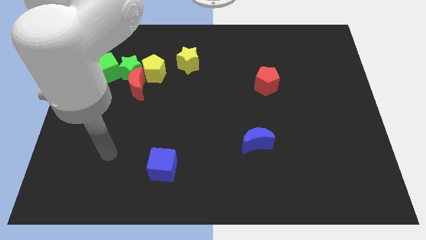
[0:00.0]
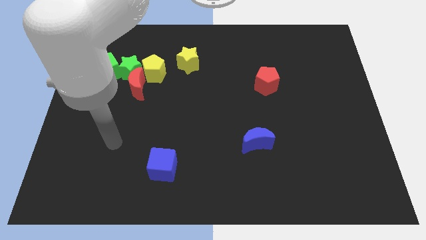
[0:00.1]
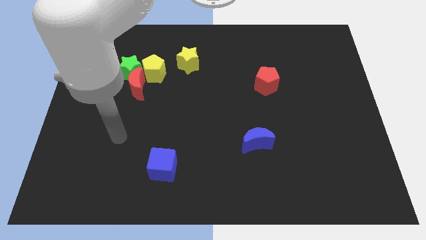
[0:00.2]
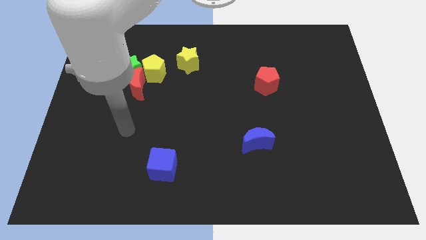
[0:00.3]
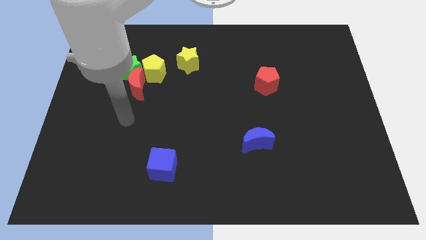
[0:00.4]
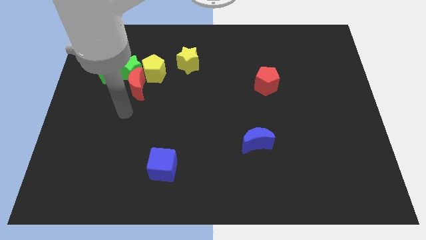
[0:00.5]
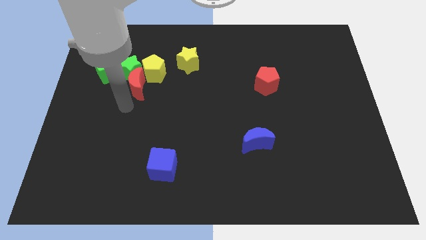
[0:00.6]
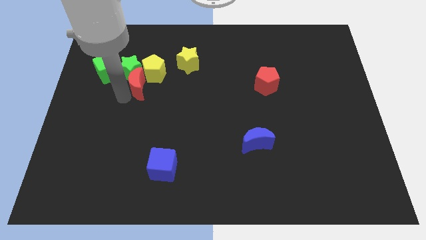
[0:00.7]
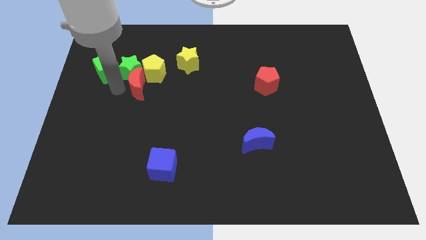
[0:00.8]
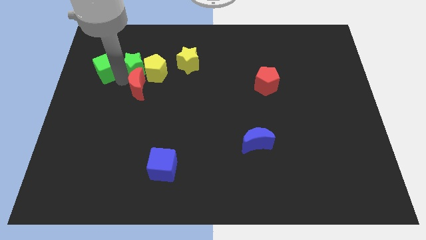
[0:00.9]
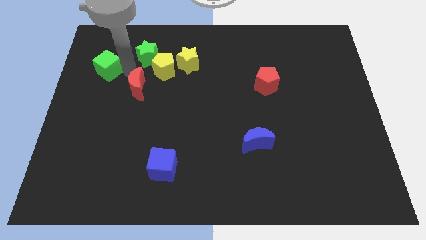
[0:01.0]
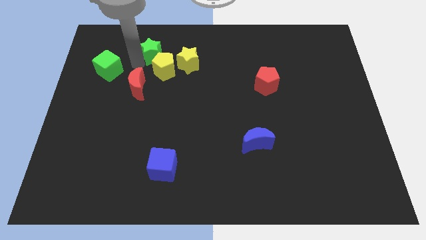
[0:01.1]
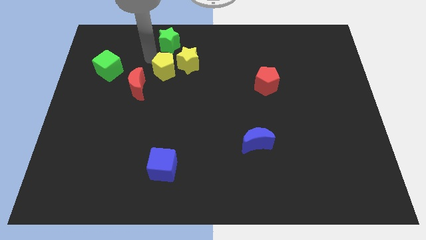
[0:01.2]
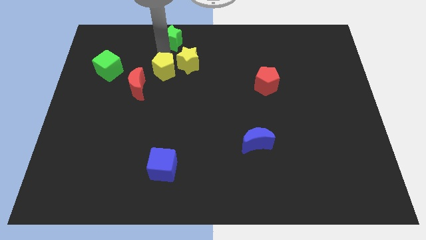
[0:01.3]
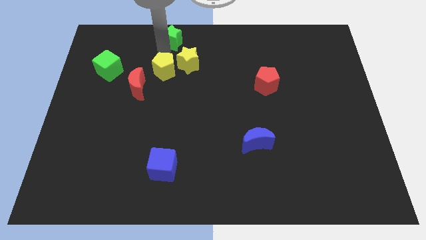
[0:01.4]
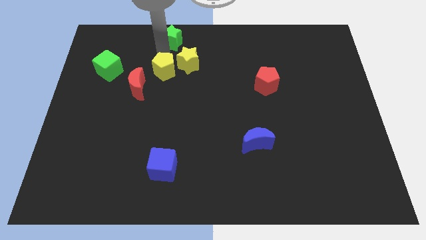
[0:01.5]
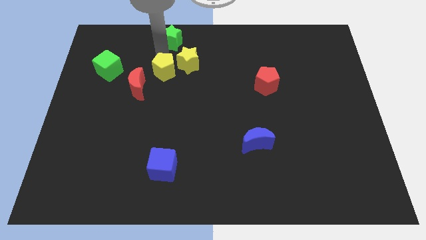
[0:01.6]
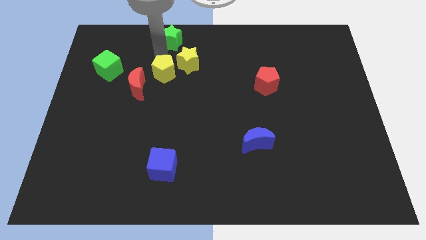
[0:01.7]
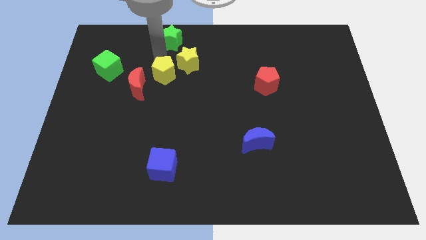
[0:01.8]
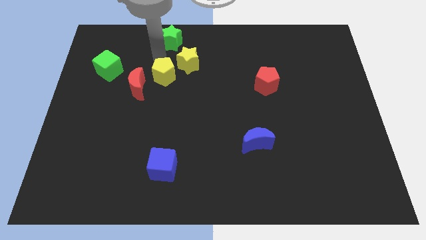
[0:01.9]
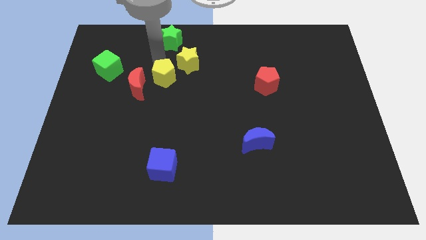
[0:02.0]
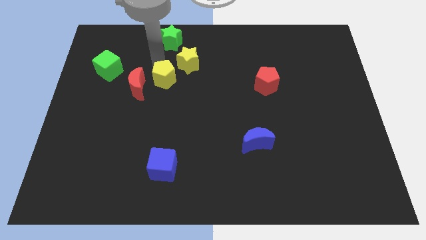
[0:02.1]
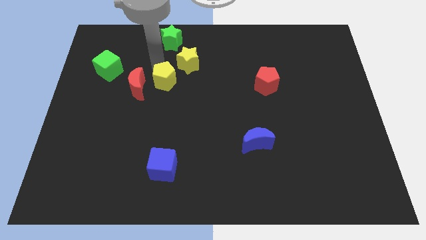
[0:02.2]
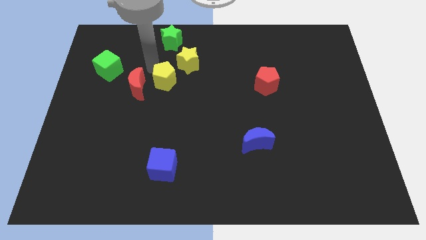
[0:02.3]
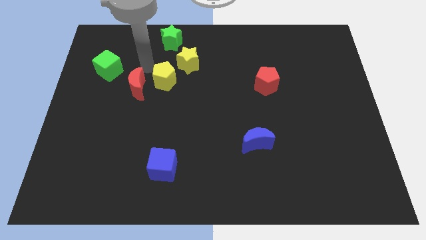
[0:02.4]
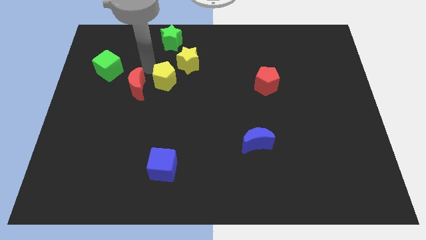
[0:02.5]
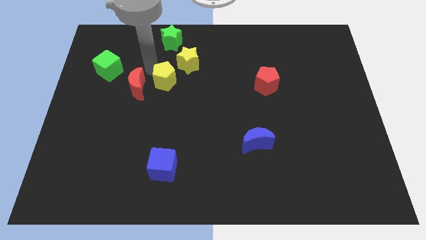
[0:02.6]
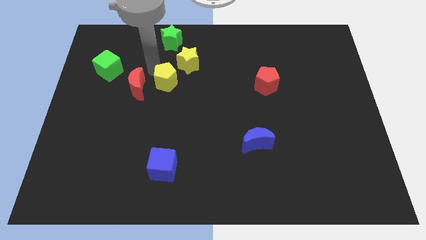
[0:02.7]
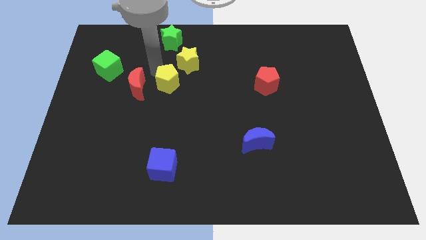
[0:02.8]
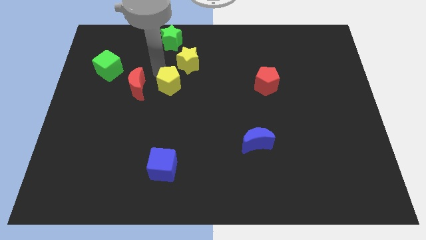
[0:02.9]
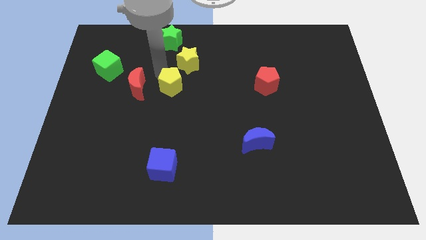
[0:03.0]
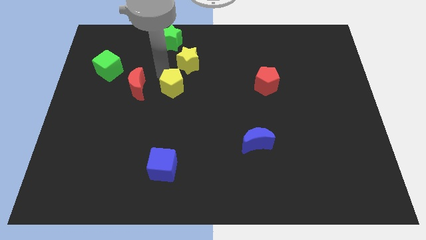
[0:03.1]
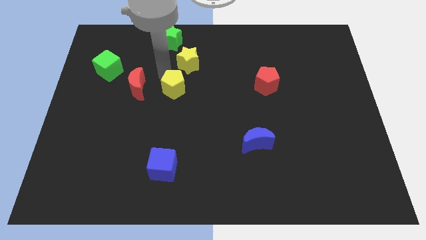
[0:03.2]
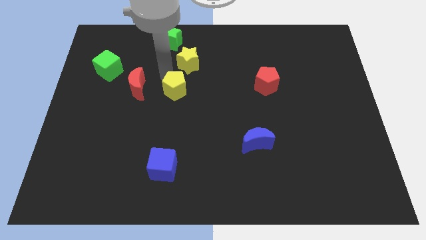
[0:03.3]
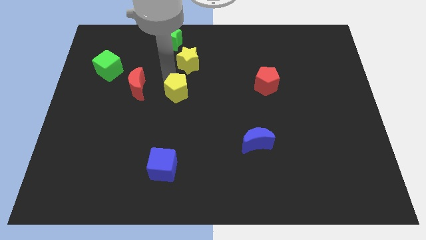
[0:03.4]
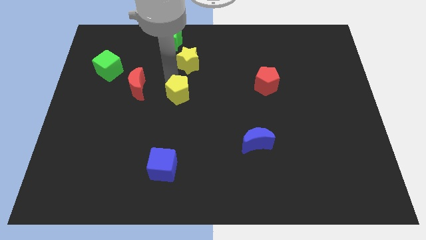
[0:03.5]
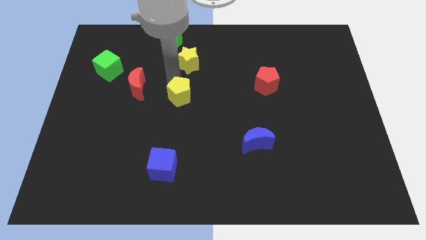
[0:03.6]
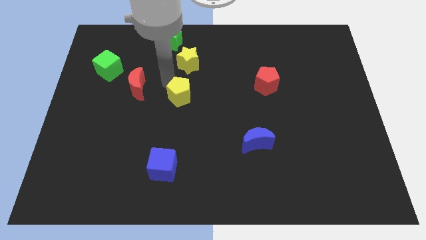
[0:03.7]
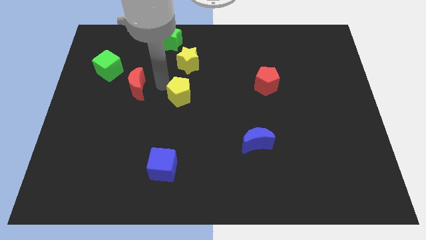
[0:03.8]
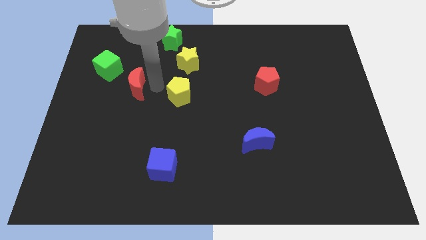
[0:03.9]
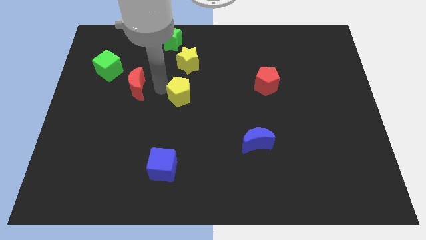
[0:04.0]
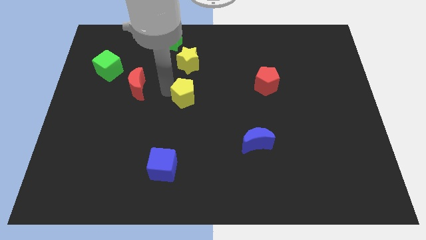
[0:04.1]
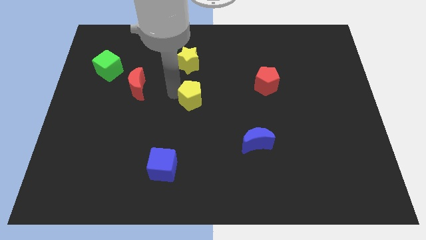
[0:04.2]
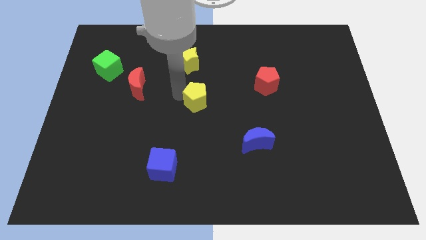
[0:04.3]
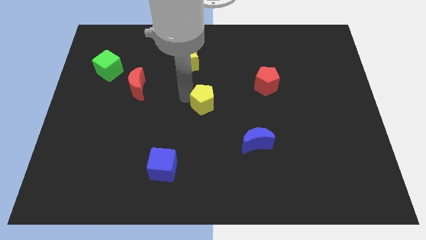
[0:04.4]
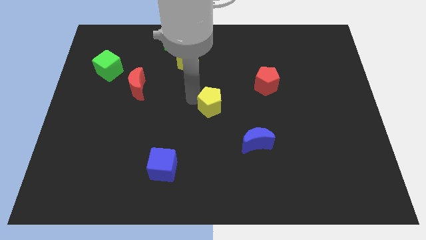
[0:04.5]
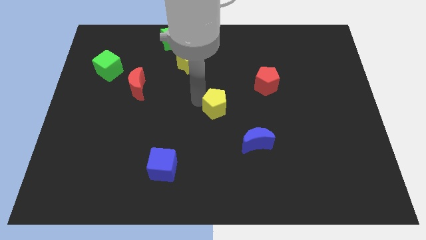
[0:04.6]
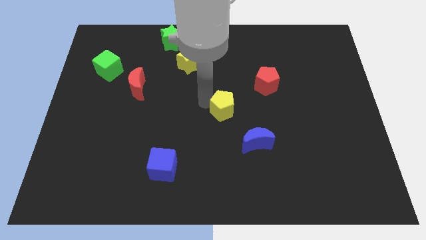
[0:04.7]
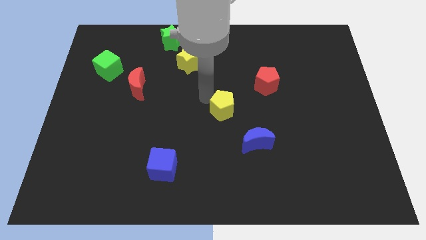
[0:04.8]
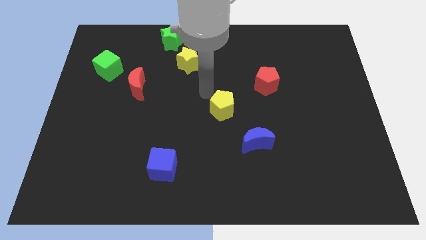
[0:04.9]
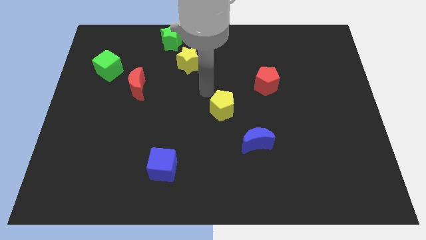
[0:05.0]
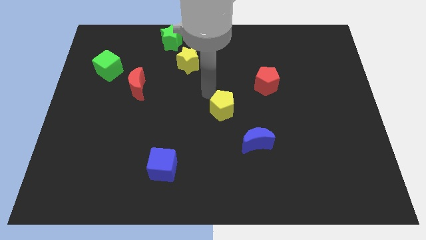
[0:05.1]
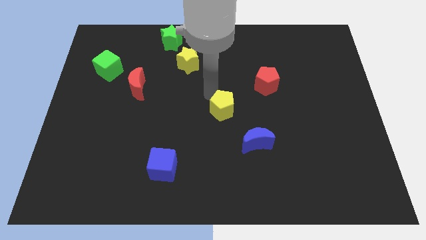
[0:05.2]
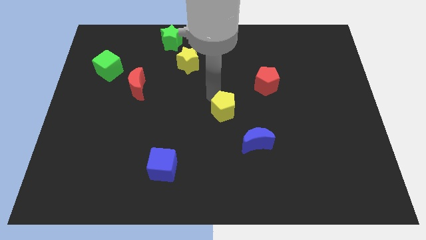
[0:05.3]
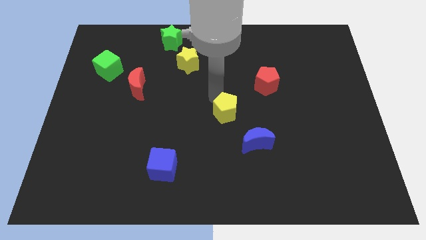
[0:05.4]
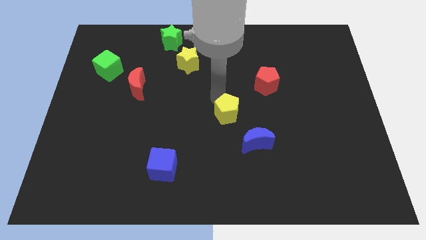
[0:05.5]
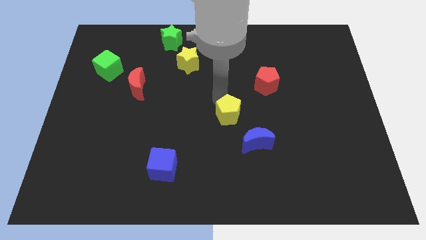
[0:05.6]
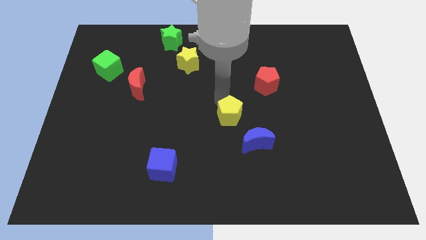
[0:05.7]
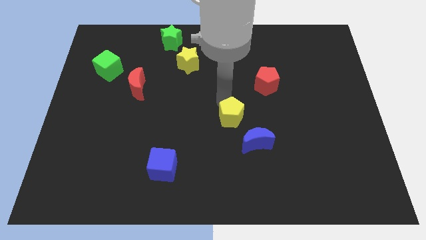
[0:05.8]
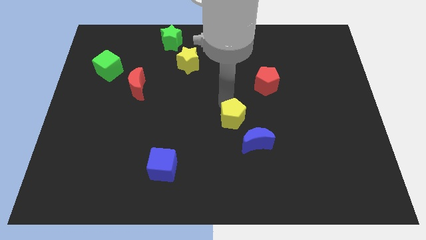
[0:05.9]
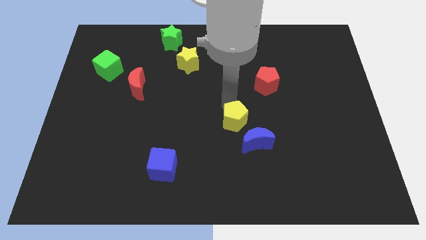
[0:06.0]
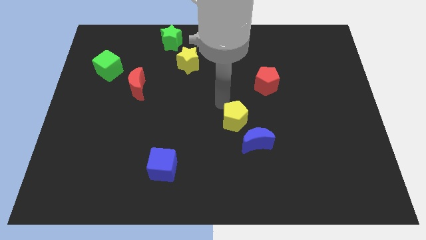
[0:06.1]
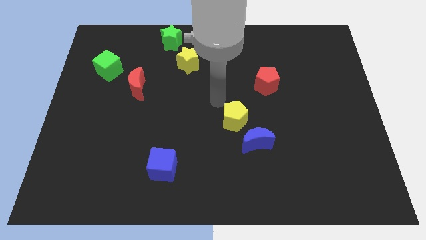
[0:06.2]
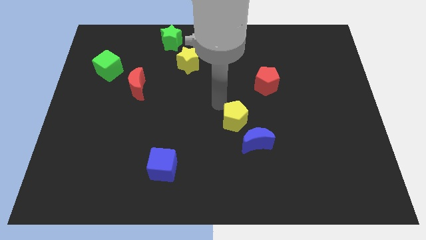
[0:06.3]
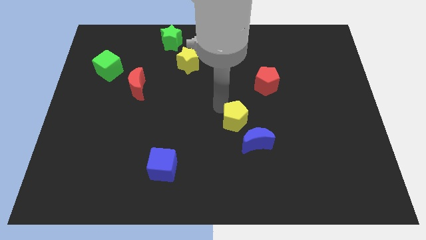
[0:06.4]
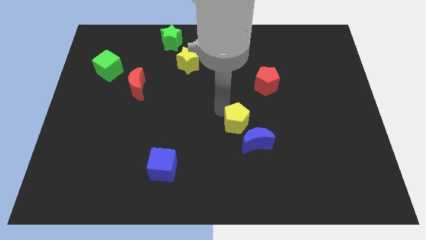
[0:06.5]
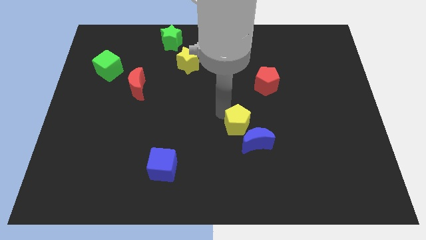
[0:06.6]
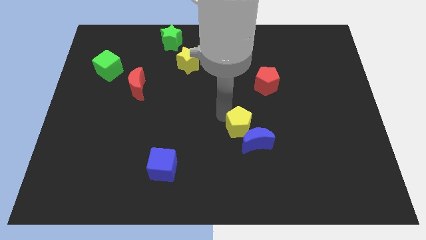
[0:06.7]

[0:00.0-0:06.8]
move the yellow pentagon close to the blue moon

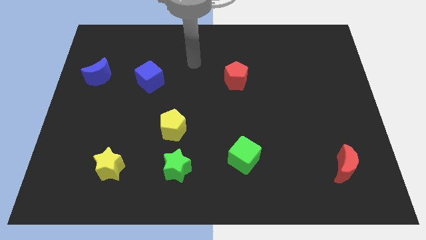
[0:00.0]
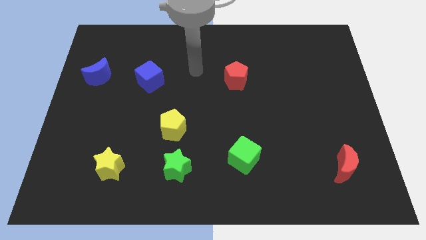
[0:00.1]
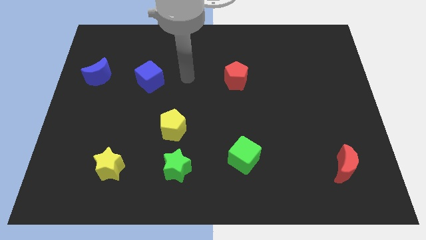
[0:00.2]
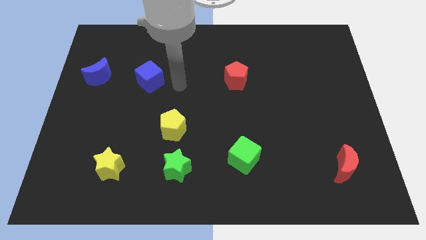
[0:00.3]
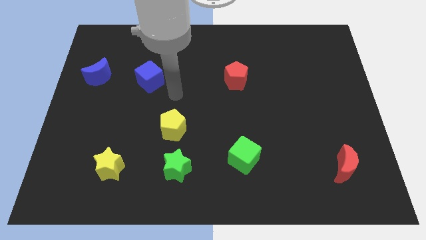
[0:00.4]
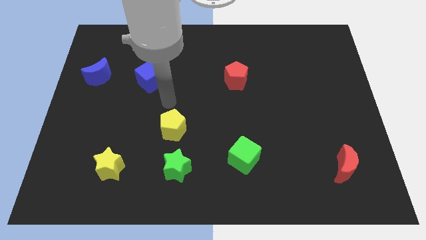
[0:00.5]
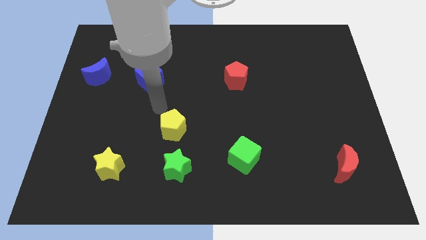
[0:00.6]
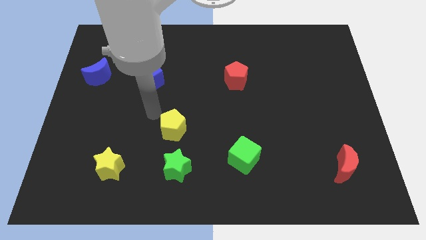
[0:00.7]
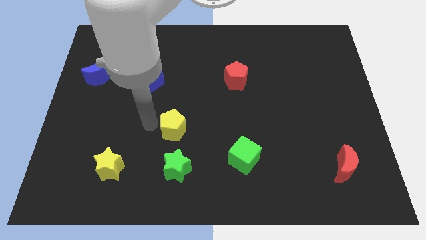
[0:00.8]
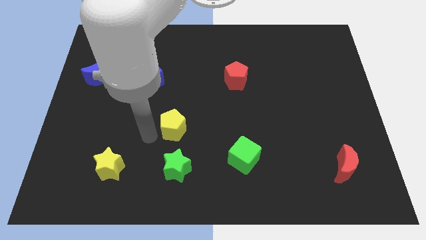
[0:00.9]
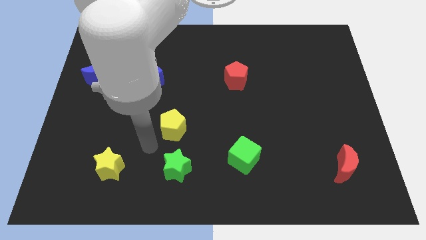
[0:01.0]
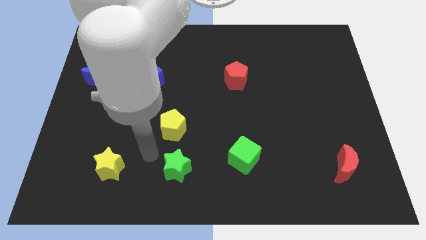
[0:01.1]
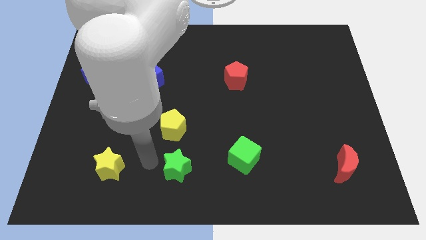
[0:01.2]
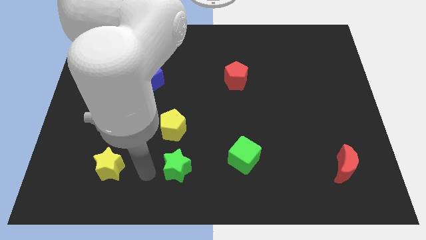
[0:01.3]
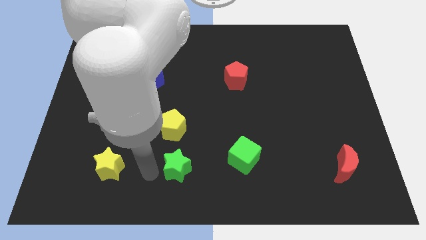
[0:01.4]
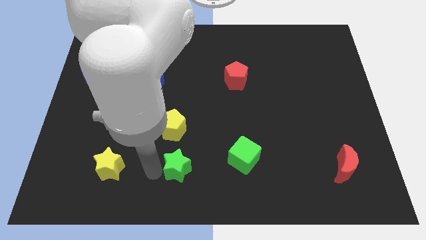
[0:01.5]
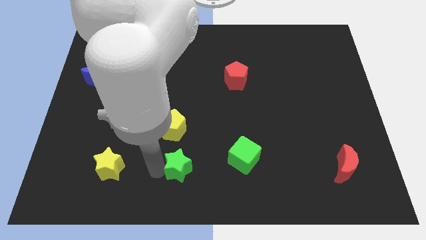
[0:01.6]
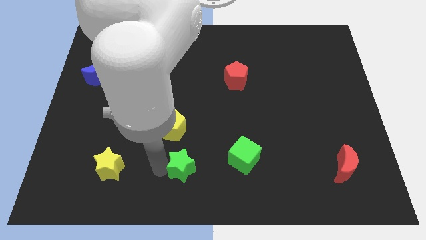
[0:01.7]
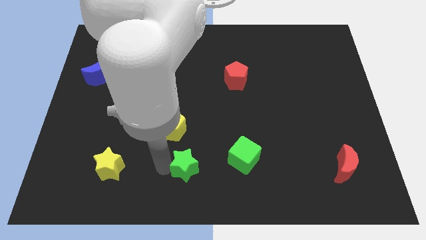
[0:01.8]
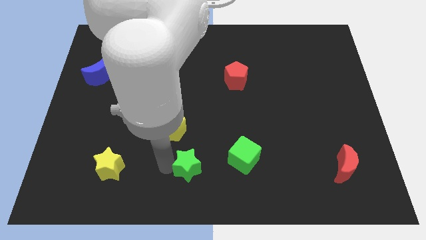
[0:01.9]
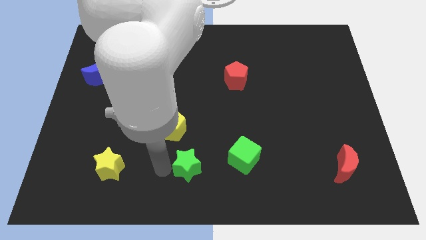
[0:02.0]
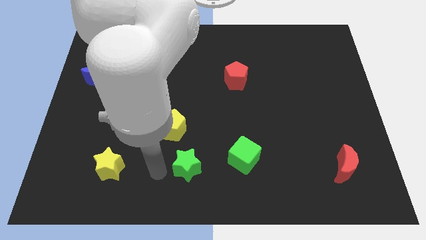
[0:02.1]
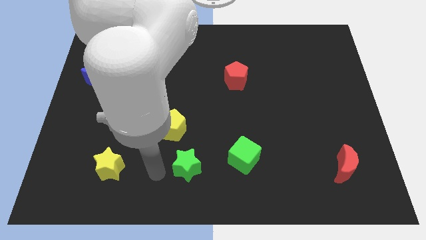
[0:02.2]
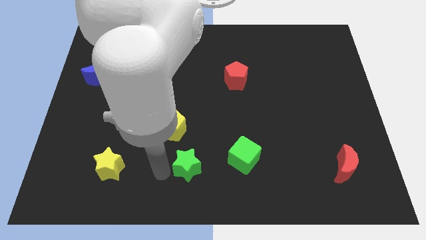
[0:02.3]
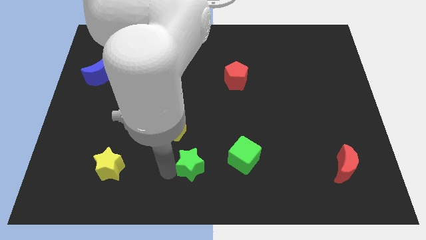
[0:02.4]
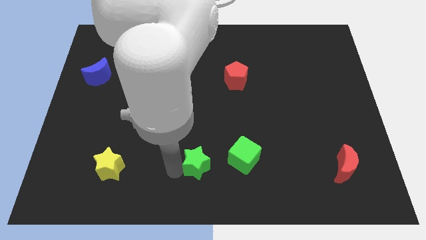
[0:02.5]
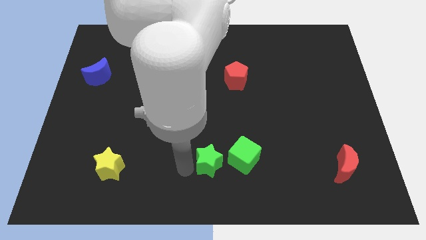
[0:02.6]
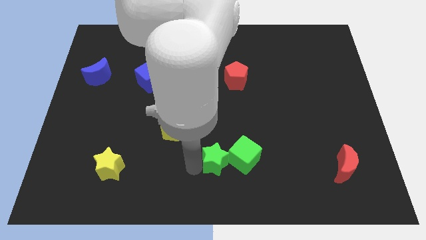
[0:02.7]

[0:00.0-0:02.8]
push the green star towards the green cube
